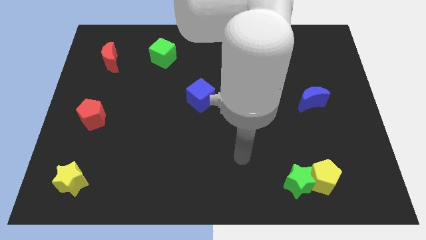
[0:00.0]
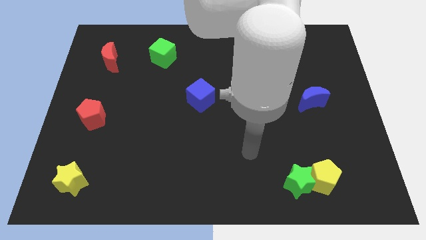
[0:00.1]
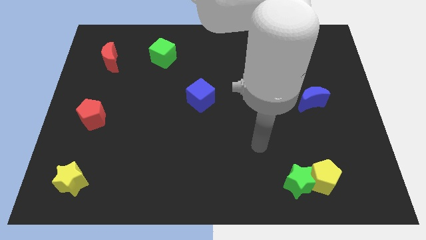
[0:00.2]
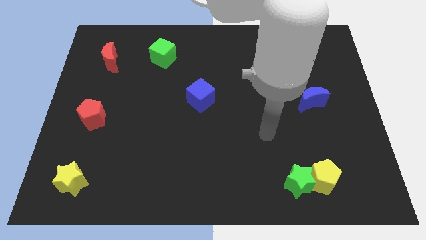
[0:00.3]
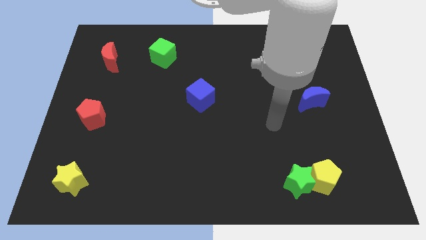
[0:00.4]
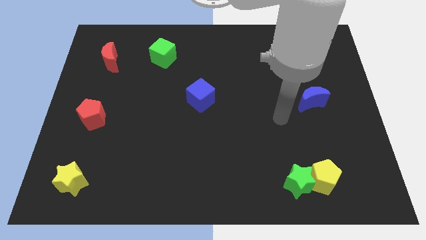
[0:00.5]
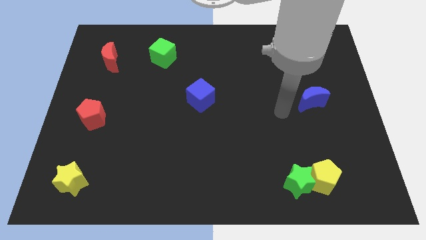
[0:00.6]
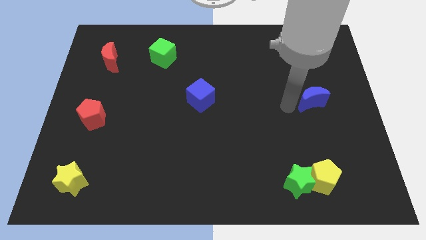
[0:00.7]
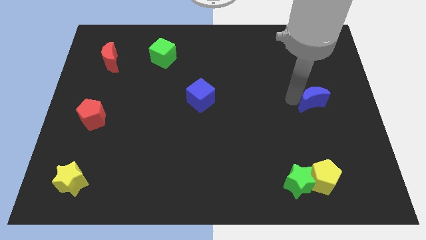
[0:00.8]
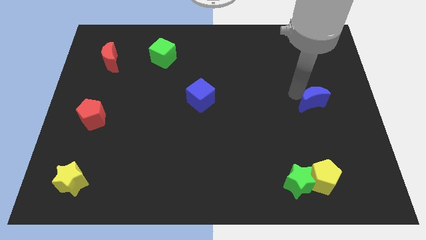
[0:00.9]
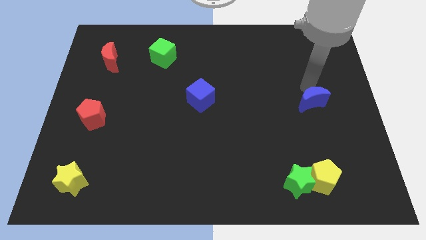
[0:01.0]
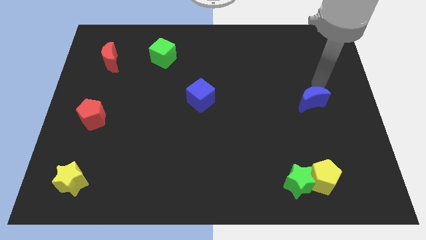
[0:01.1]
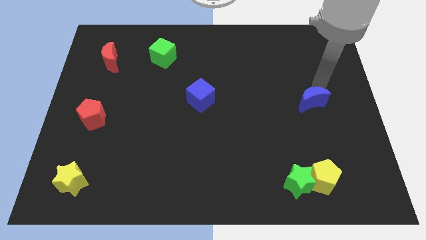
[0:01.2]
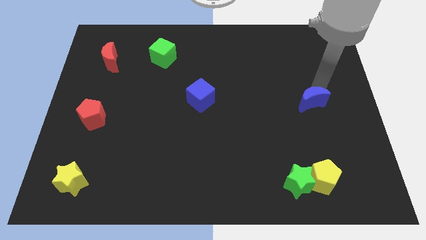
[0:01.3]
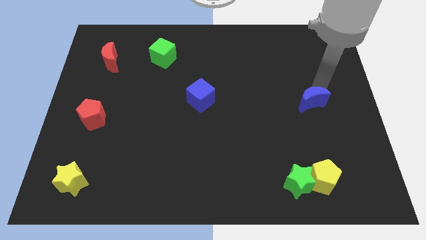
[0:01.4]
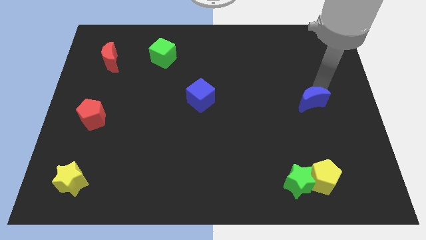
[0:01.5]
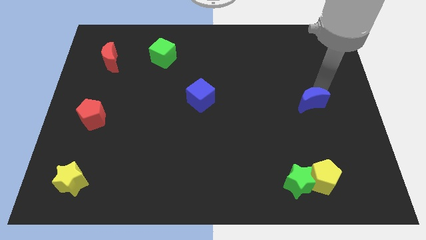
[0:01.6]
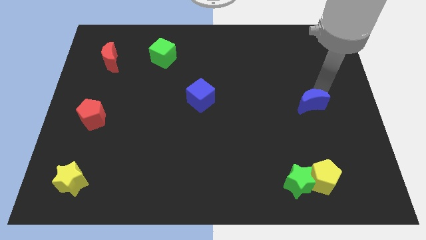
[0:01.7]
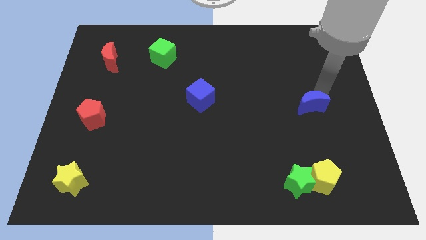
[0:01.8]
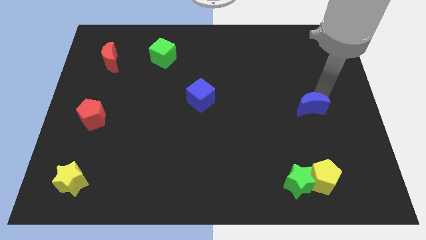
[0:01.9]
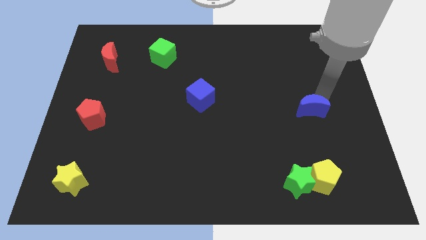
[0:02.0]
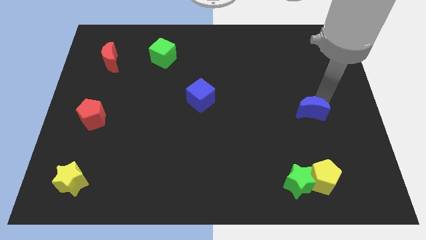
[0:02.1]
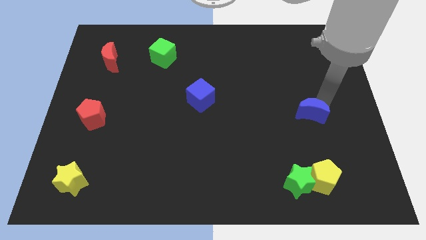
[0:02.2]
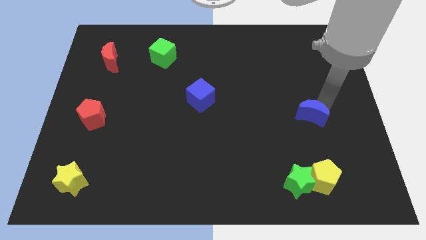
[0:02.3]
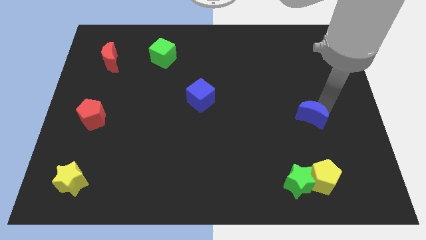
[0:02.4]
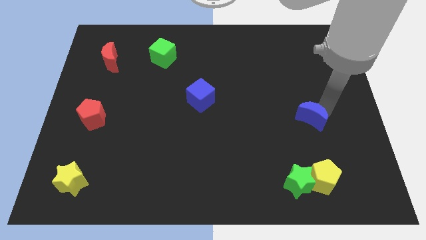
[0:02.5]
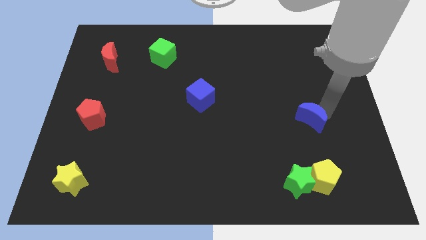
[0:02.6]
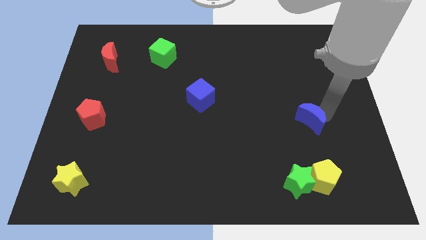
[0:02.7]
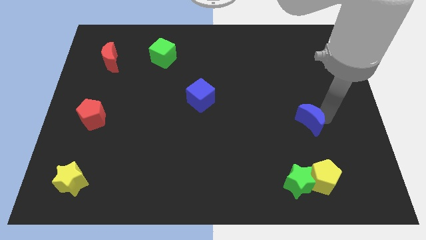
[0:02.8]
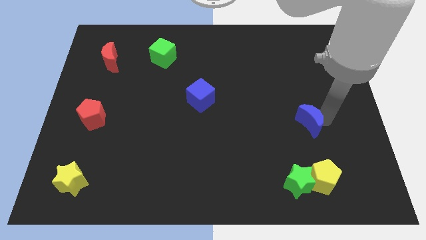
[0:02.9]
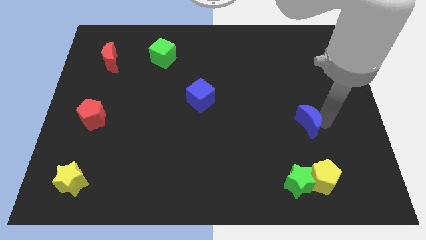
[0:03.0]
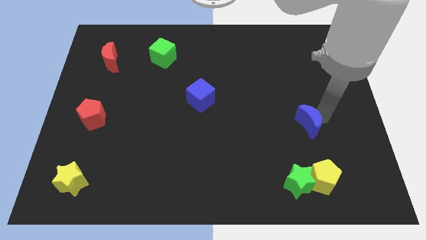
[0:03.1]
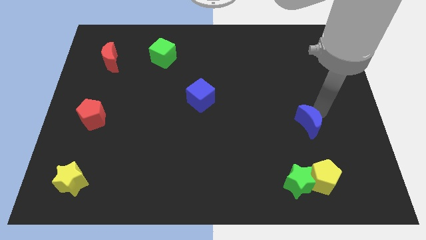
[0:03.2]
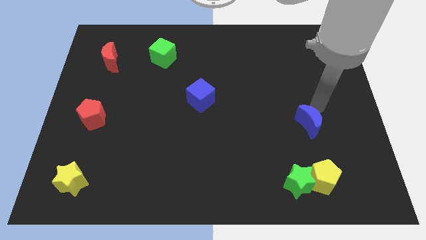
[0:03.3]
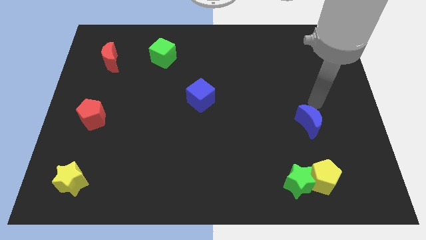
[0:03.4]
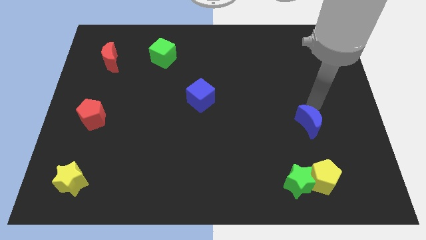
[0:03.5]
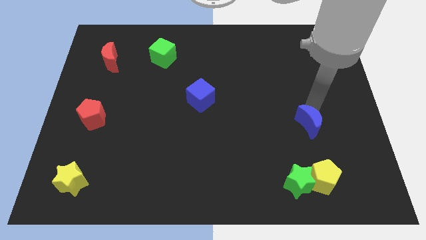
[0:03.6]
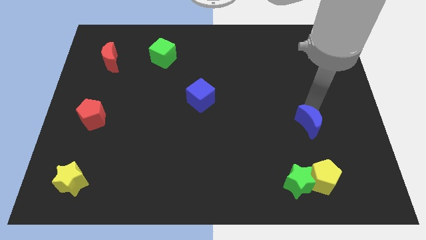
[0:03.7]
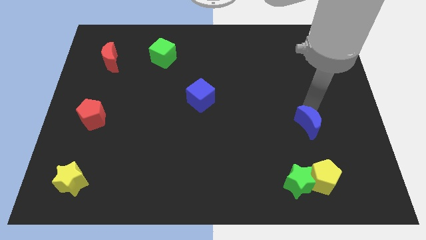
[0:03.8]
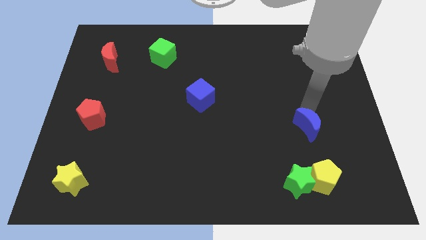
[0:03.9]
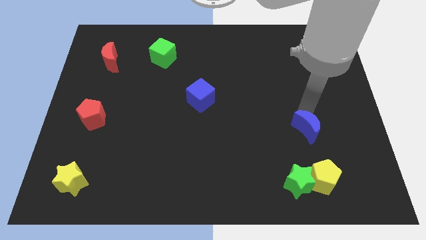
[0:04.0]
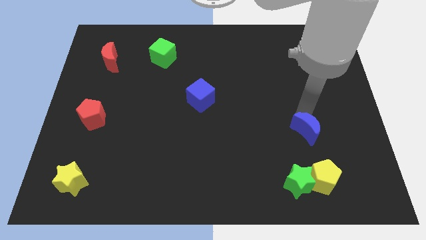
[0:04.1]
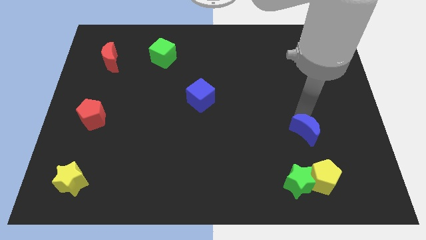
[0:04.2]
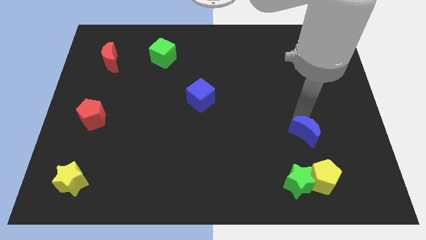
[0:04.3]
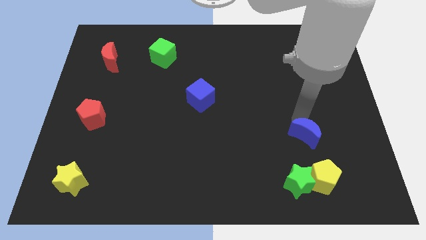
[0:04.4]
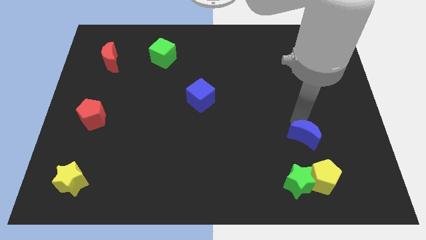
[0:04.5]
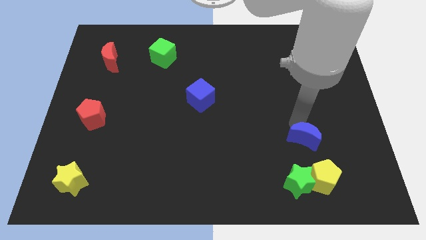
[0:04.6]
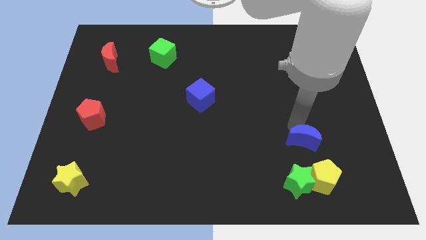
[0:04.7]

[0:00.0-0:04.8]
put the blue moon to the top left of the yellow pentagon

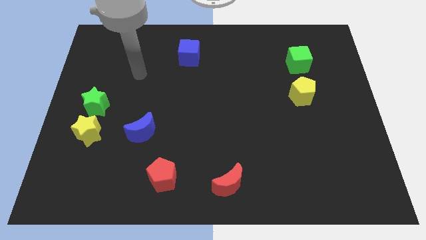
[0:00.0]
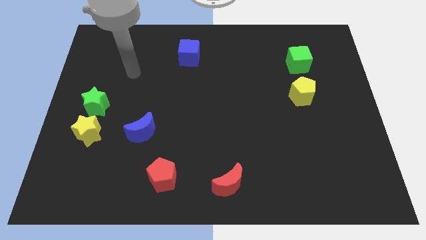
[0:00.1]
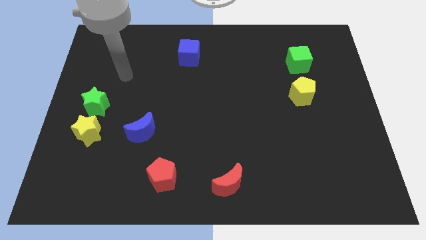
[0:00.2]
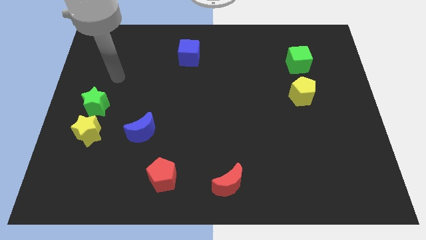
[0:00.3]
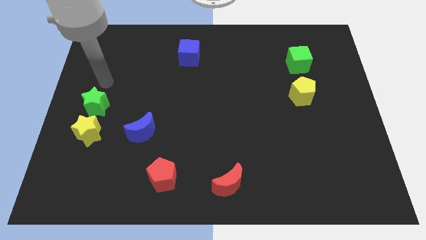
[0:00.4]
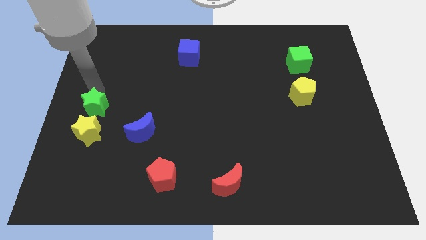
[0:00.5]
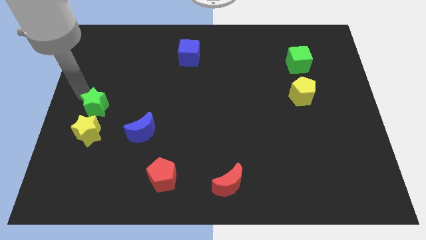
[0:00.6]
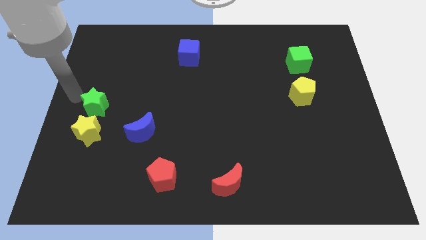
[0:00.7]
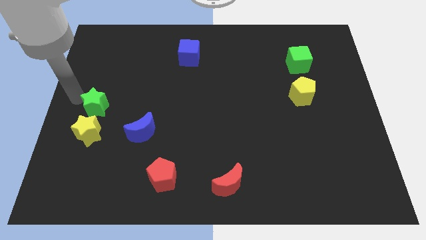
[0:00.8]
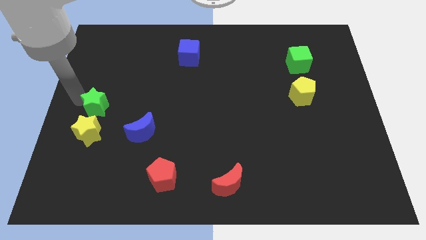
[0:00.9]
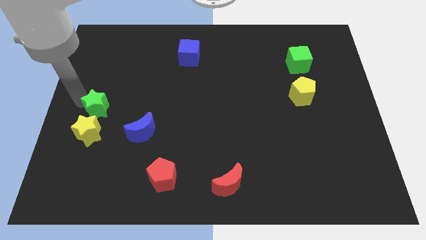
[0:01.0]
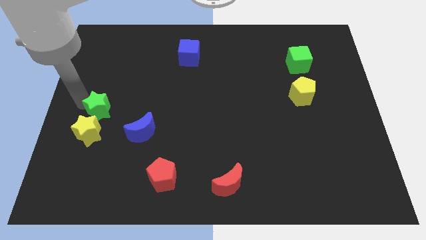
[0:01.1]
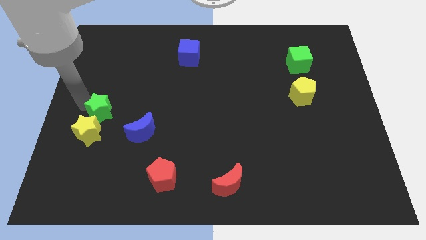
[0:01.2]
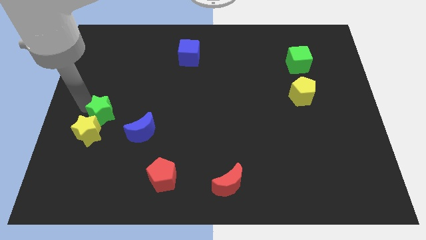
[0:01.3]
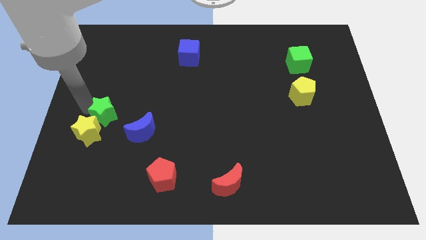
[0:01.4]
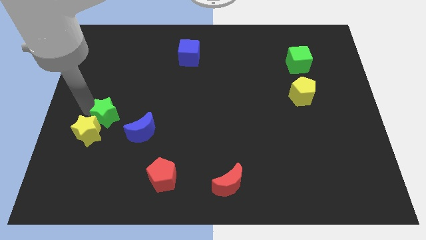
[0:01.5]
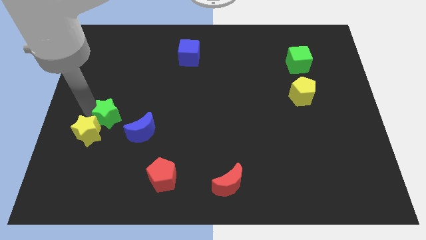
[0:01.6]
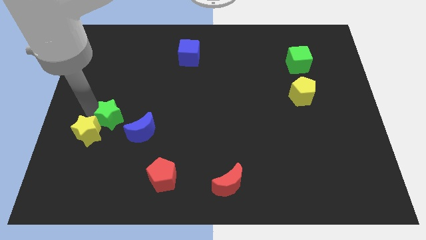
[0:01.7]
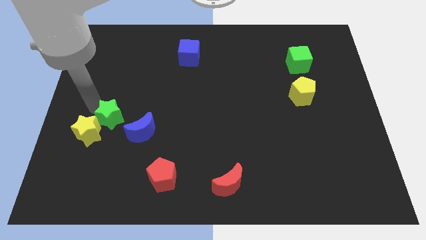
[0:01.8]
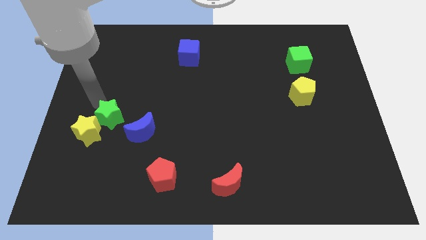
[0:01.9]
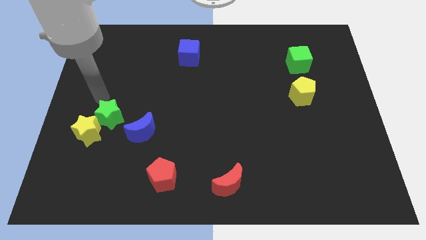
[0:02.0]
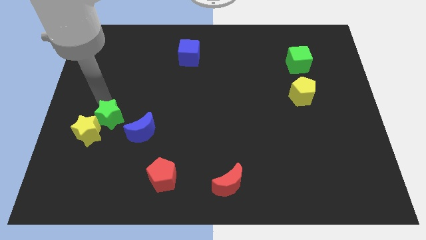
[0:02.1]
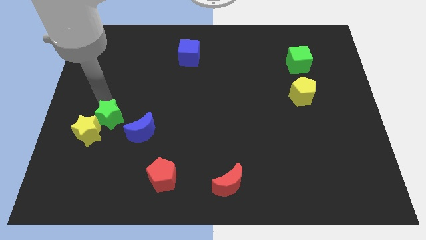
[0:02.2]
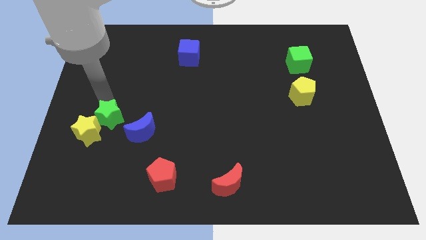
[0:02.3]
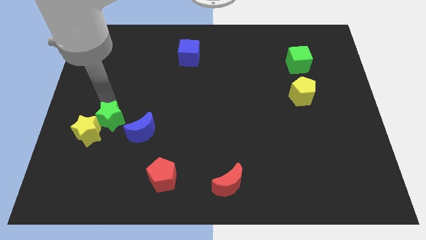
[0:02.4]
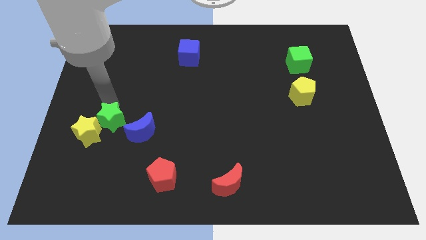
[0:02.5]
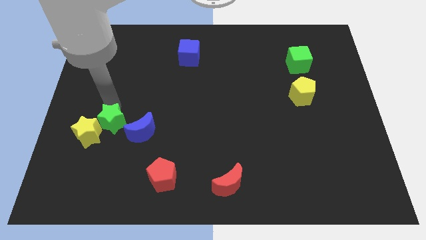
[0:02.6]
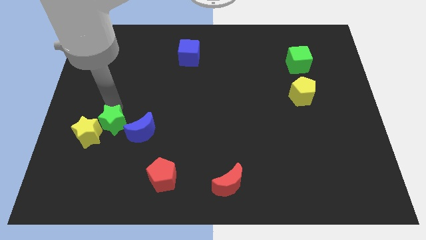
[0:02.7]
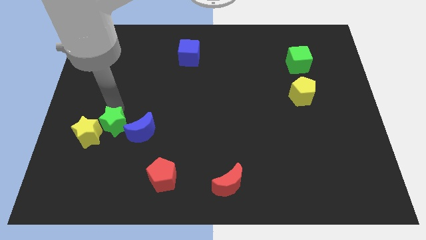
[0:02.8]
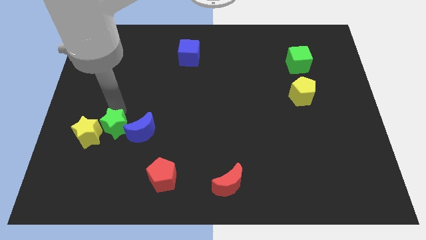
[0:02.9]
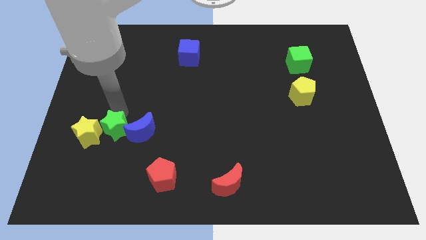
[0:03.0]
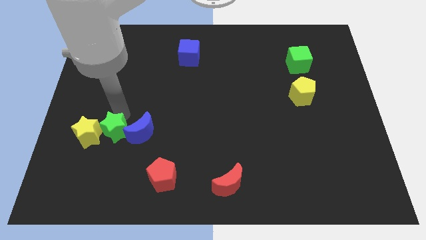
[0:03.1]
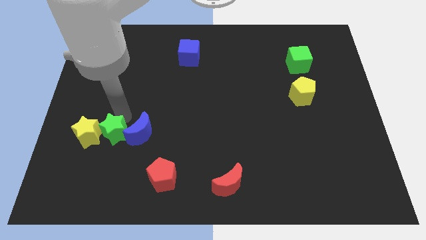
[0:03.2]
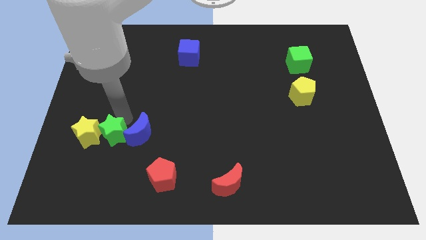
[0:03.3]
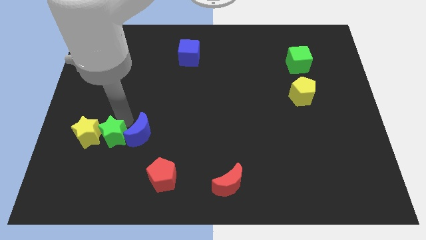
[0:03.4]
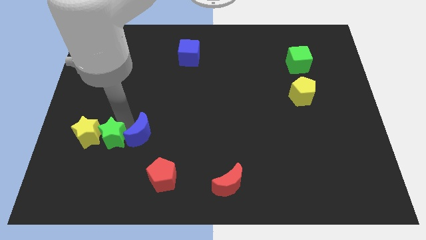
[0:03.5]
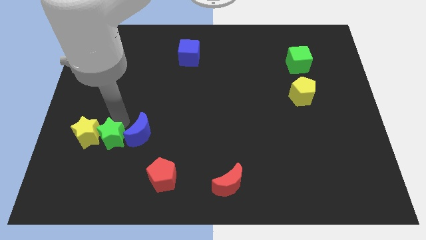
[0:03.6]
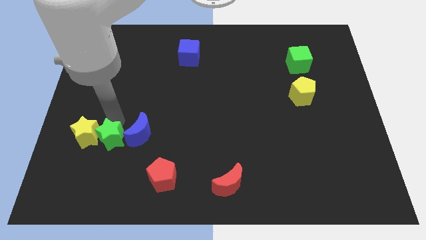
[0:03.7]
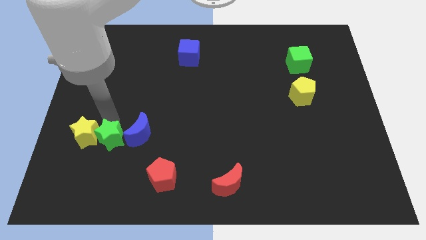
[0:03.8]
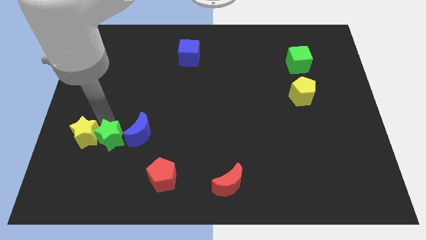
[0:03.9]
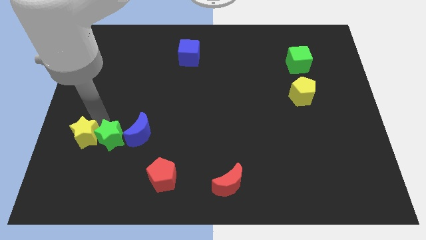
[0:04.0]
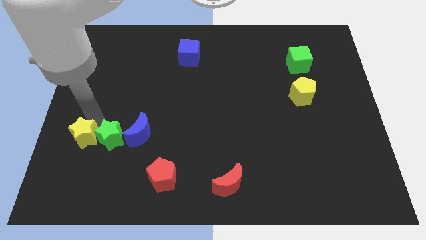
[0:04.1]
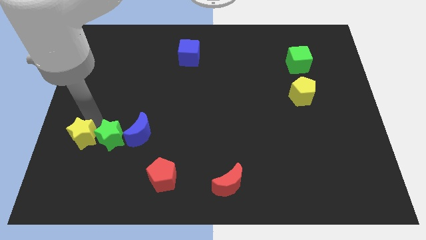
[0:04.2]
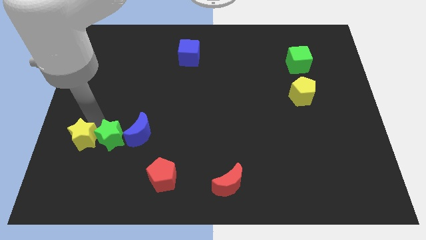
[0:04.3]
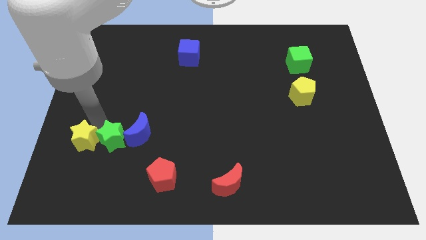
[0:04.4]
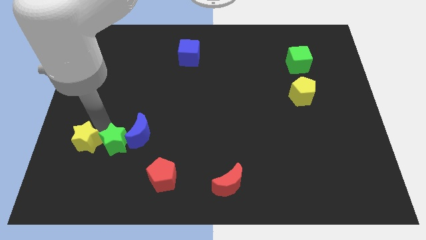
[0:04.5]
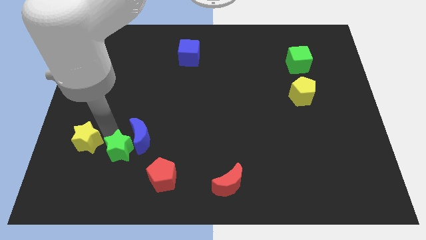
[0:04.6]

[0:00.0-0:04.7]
push the green star to the bottom of the blue moon
